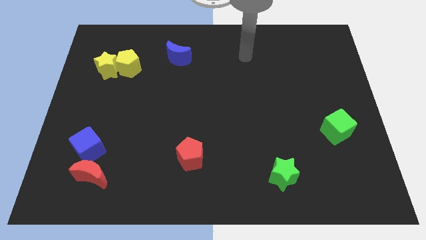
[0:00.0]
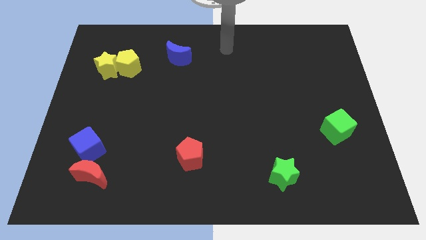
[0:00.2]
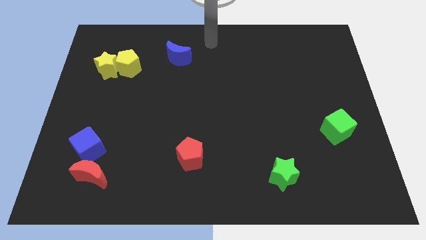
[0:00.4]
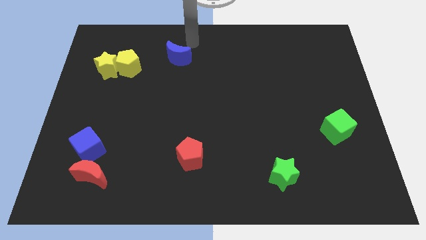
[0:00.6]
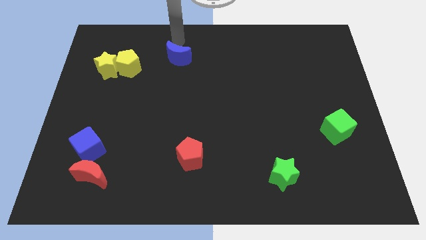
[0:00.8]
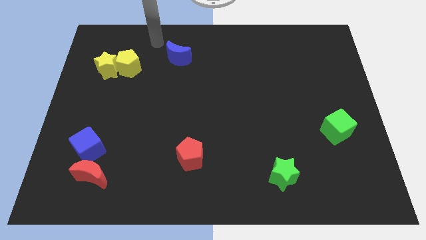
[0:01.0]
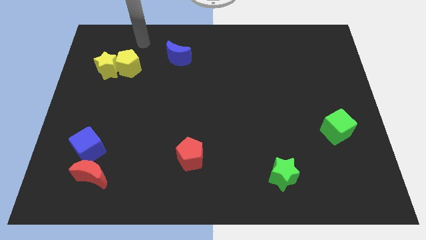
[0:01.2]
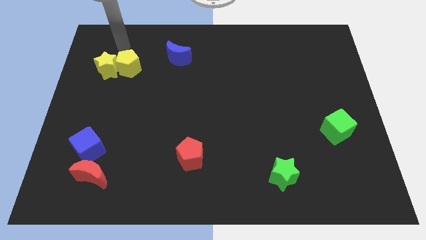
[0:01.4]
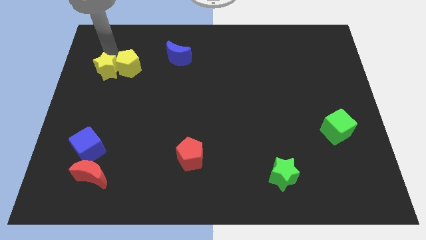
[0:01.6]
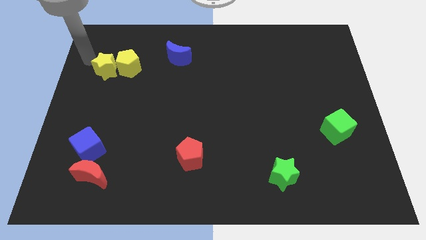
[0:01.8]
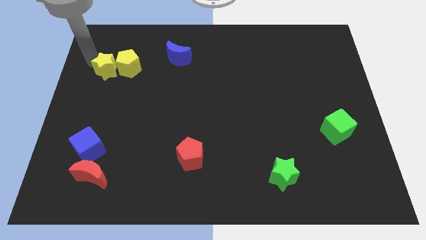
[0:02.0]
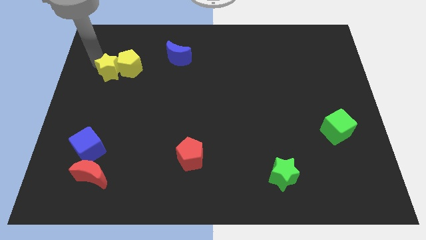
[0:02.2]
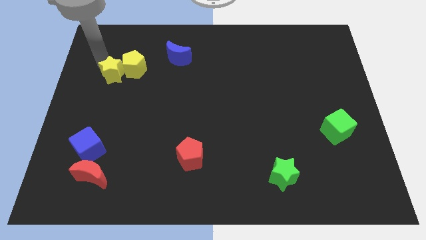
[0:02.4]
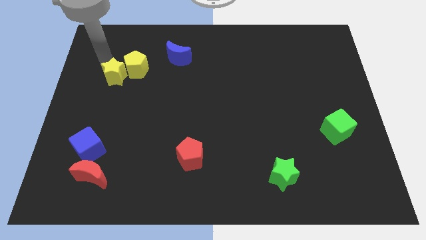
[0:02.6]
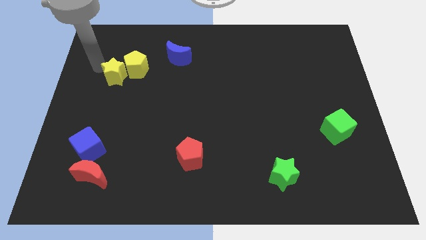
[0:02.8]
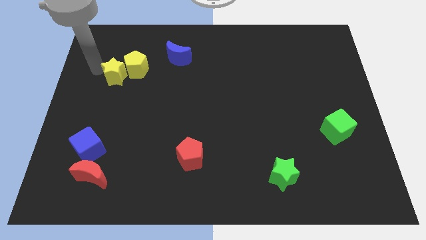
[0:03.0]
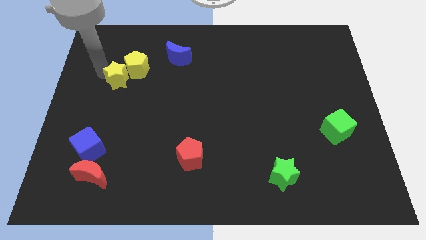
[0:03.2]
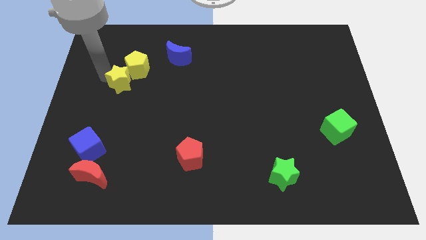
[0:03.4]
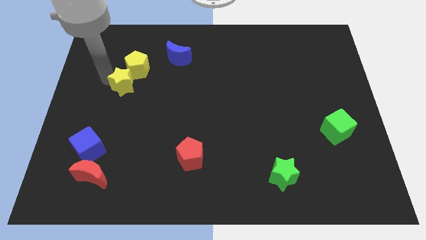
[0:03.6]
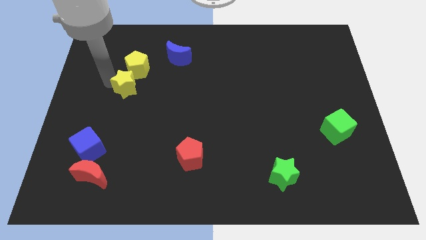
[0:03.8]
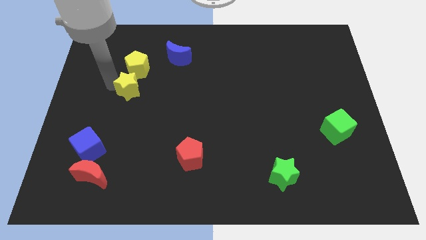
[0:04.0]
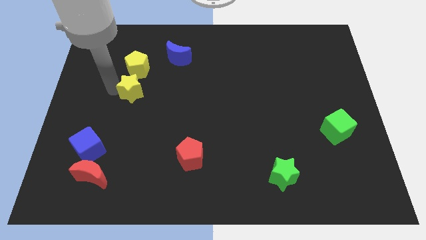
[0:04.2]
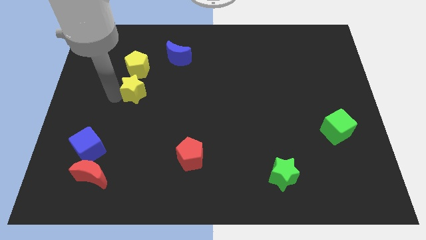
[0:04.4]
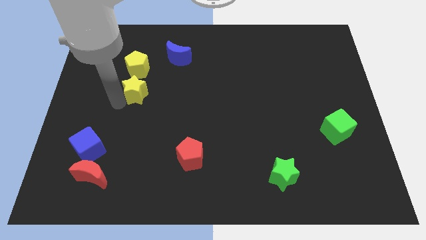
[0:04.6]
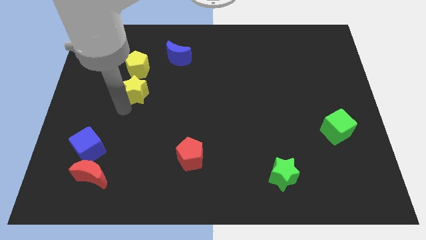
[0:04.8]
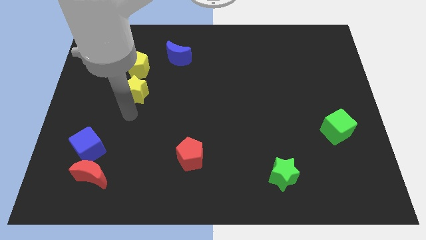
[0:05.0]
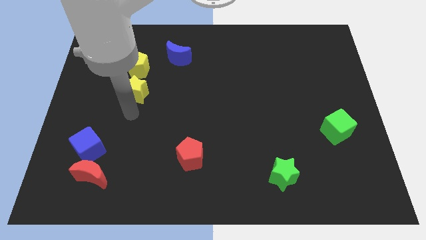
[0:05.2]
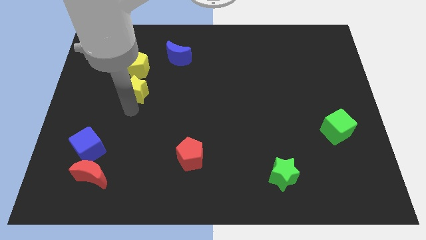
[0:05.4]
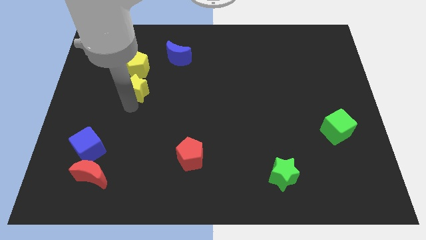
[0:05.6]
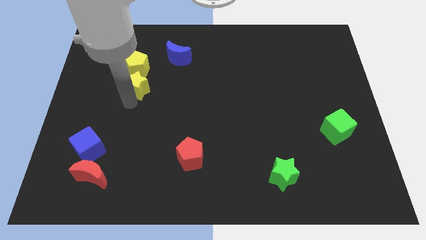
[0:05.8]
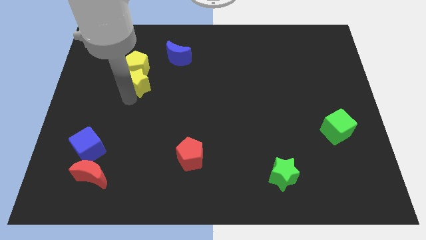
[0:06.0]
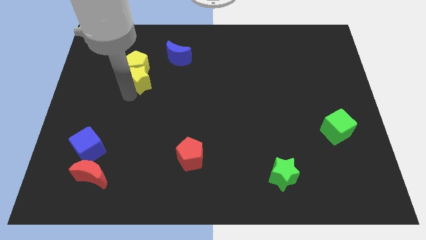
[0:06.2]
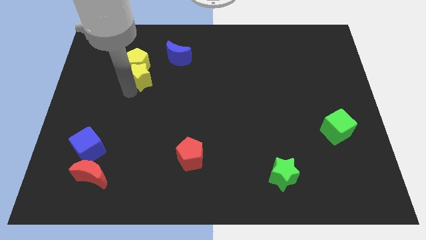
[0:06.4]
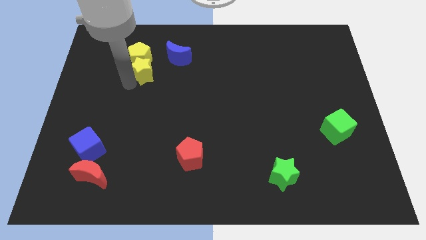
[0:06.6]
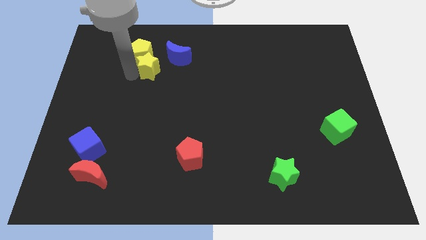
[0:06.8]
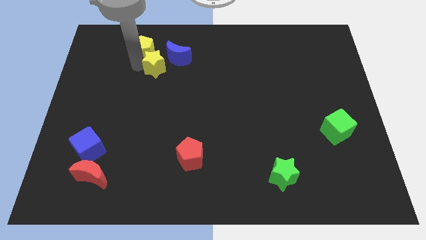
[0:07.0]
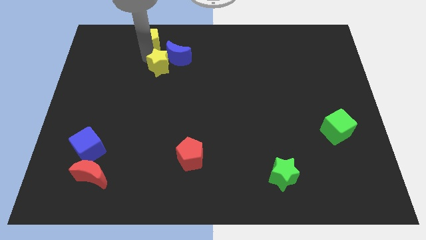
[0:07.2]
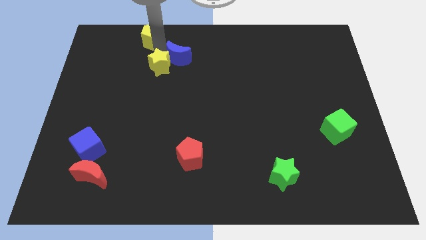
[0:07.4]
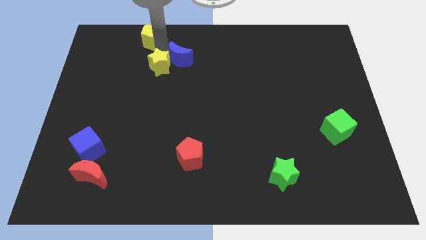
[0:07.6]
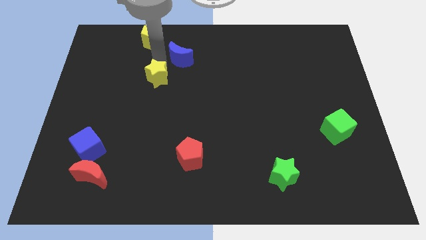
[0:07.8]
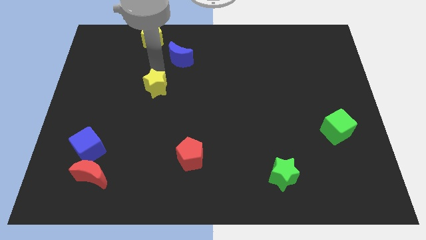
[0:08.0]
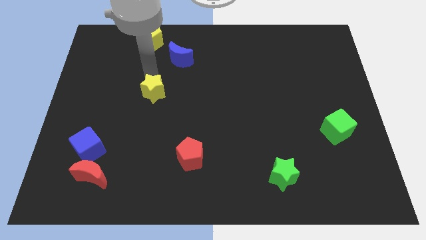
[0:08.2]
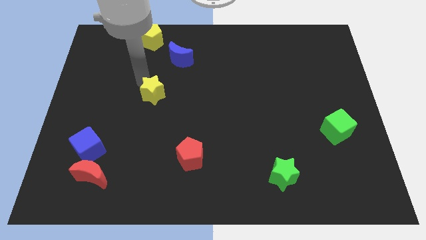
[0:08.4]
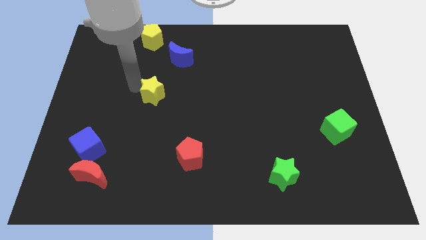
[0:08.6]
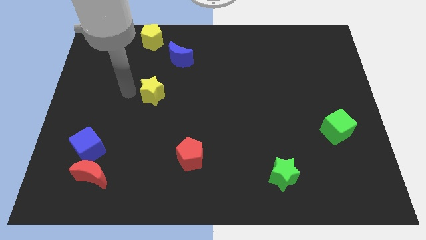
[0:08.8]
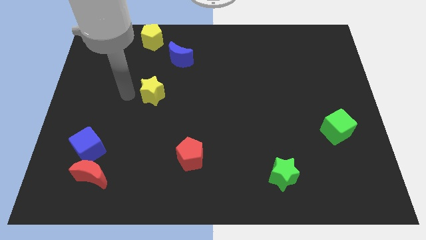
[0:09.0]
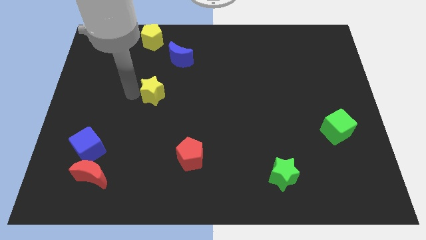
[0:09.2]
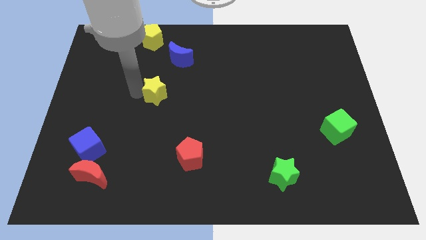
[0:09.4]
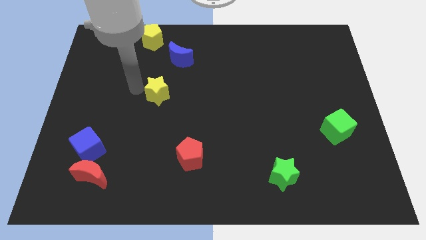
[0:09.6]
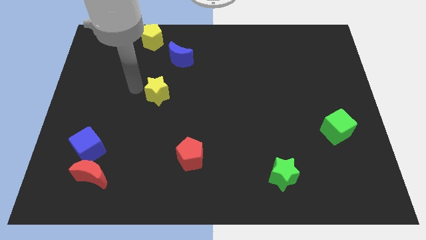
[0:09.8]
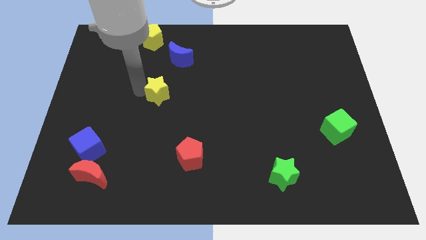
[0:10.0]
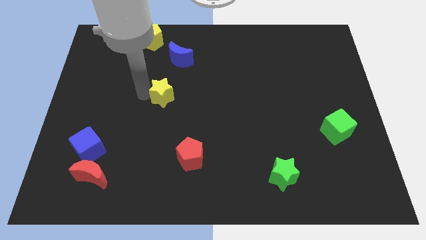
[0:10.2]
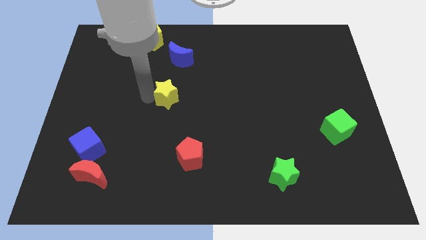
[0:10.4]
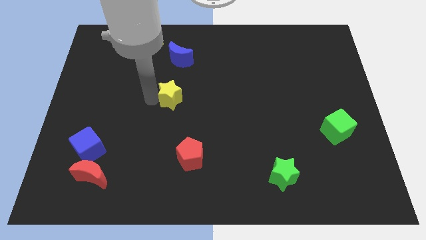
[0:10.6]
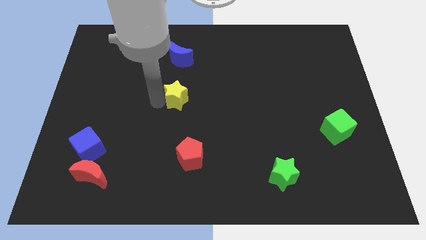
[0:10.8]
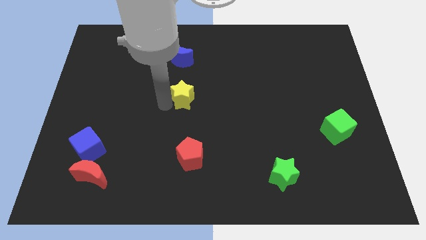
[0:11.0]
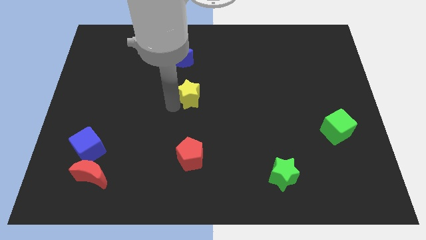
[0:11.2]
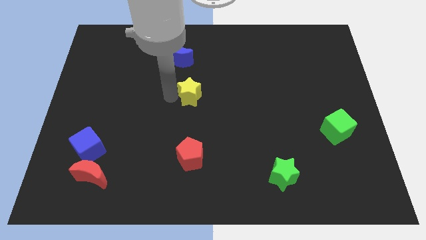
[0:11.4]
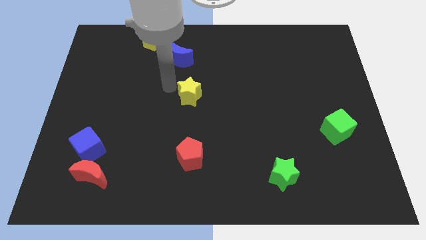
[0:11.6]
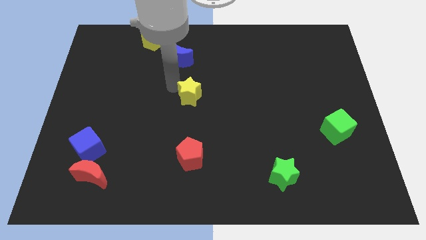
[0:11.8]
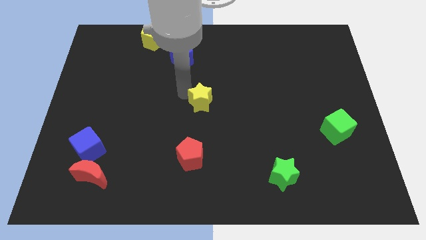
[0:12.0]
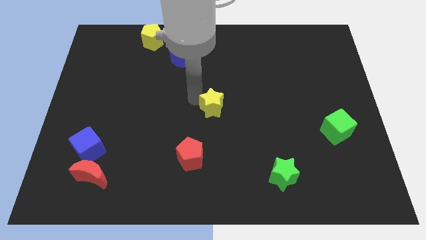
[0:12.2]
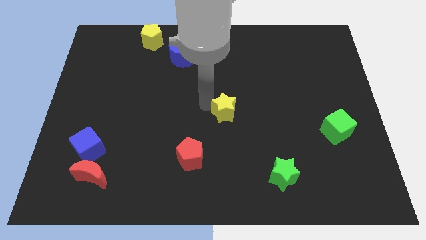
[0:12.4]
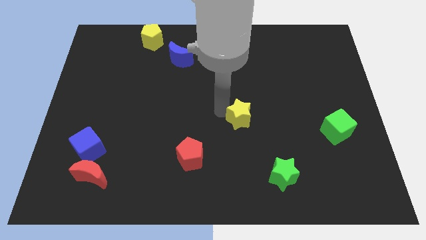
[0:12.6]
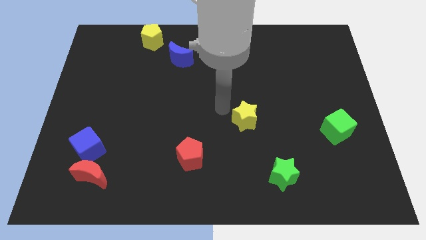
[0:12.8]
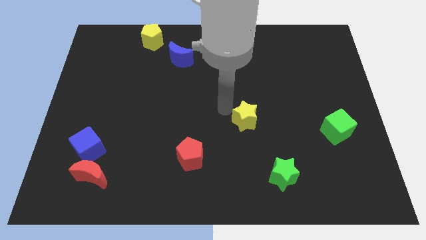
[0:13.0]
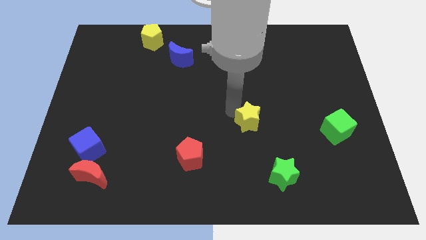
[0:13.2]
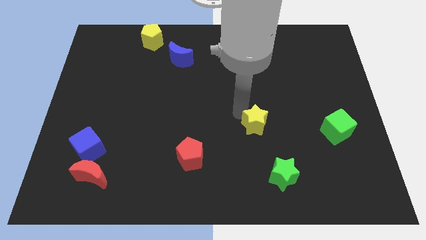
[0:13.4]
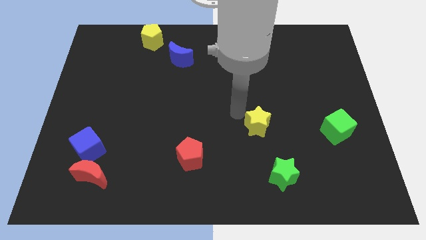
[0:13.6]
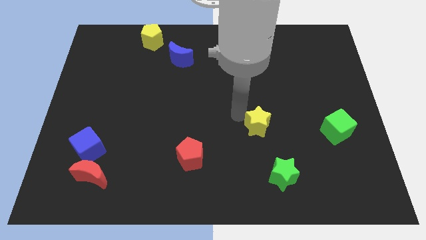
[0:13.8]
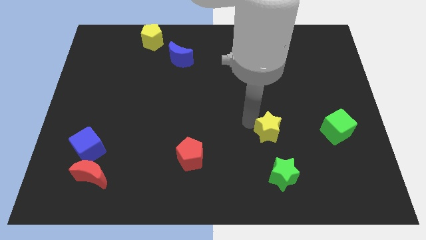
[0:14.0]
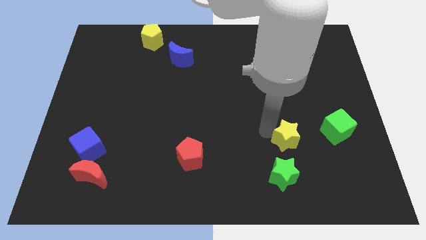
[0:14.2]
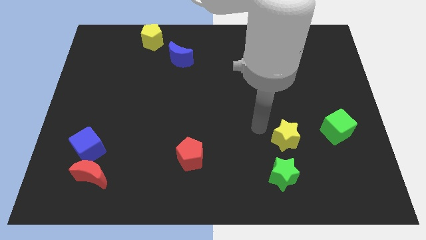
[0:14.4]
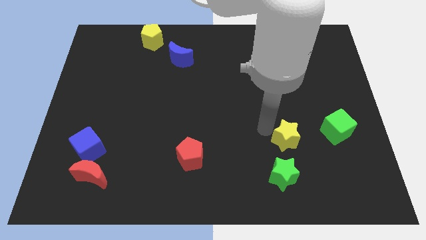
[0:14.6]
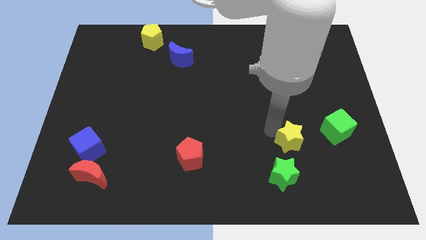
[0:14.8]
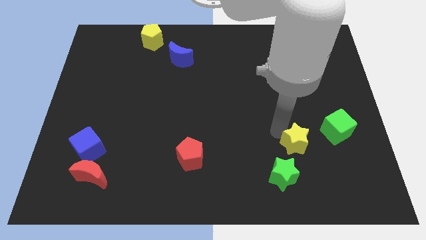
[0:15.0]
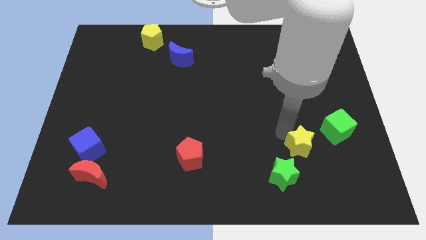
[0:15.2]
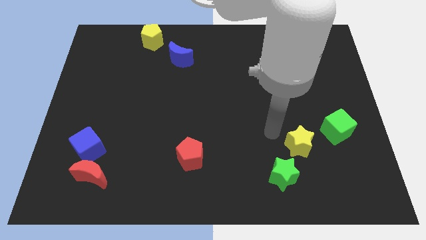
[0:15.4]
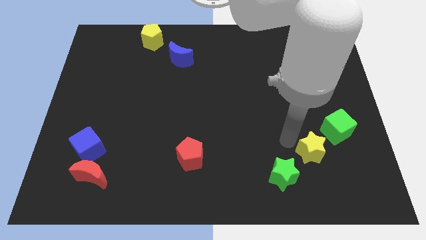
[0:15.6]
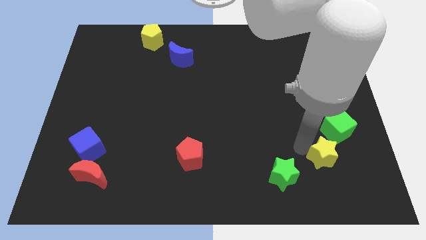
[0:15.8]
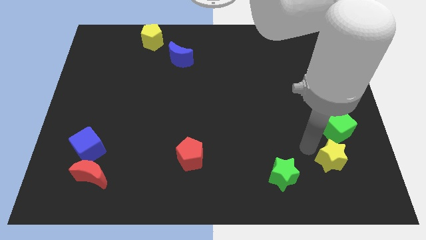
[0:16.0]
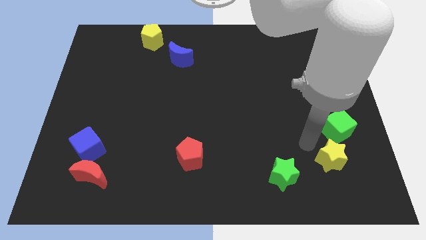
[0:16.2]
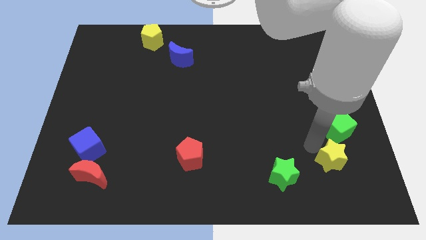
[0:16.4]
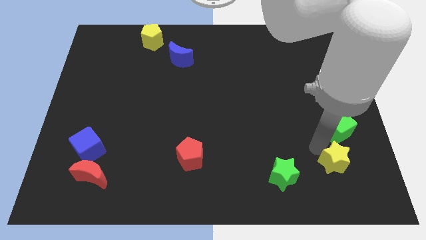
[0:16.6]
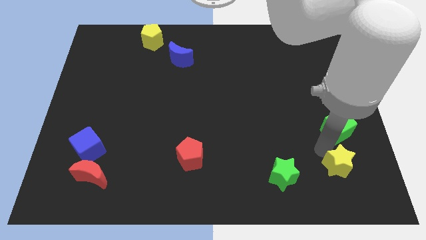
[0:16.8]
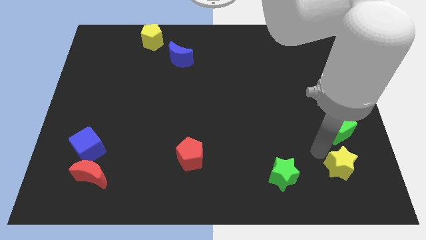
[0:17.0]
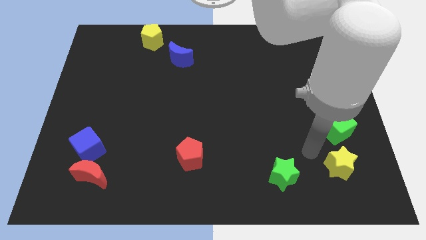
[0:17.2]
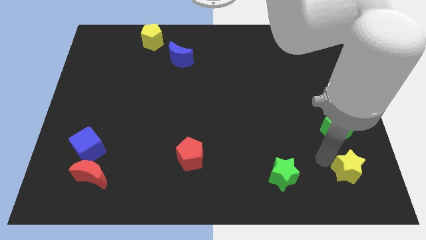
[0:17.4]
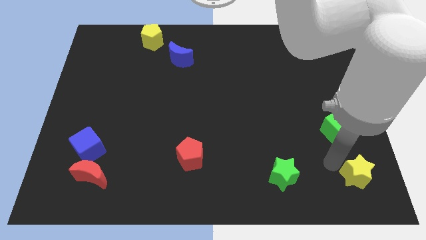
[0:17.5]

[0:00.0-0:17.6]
slide the yellow star to the lower right corner
